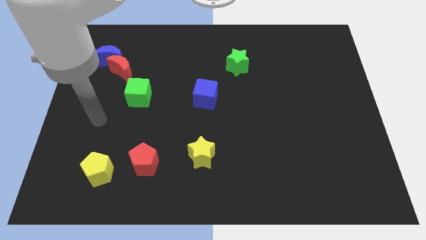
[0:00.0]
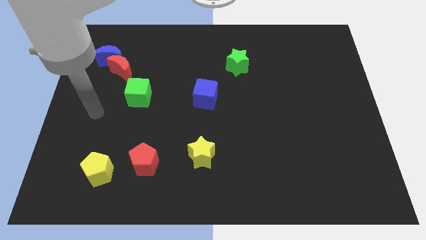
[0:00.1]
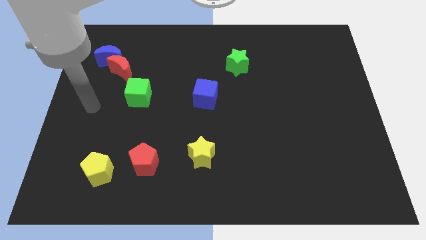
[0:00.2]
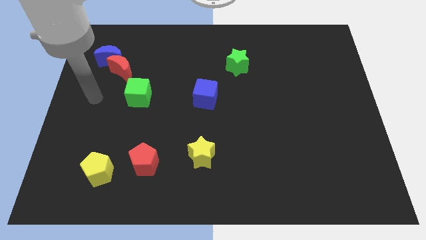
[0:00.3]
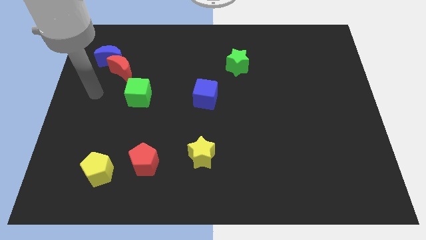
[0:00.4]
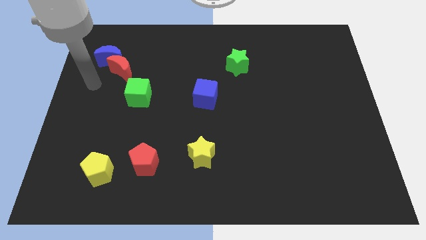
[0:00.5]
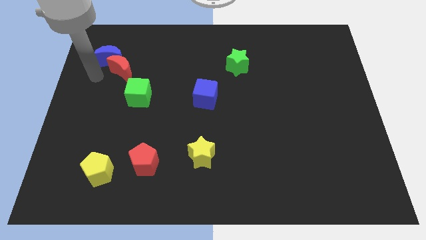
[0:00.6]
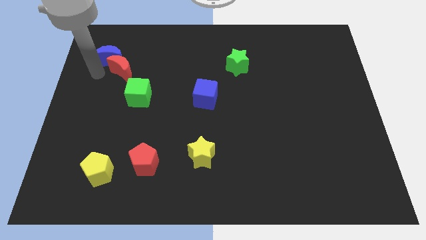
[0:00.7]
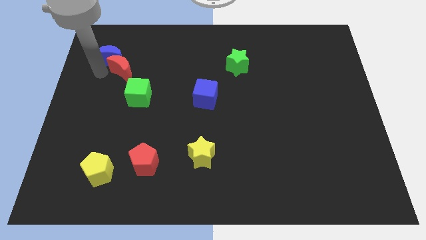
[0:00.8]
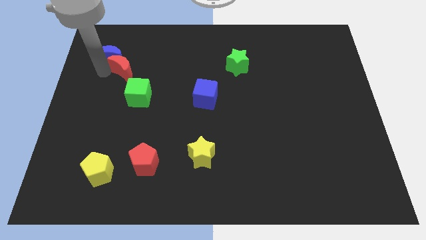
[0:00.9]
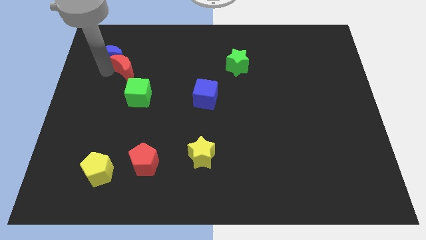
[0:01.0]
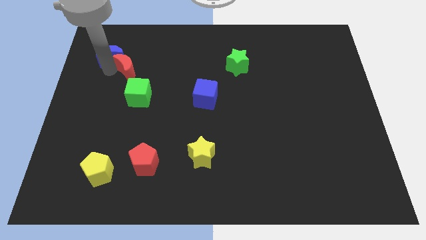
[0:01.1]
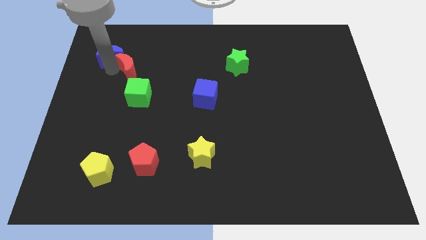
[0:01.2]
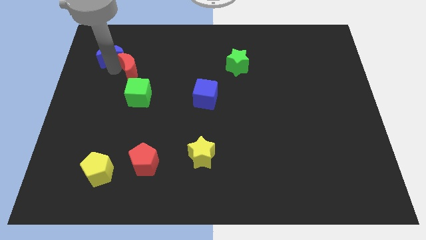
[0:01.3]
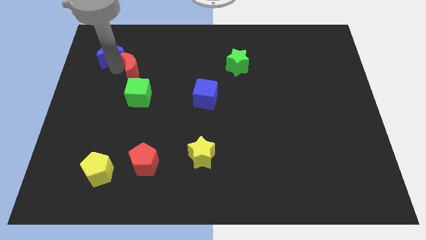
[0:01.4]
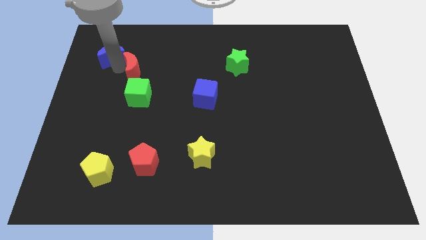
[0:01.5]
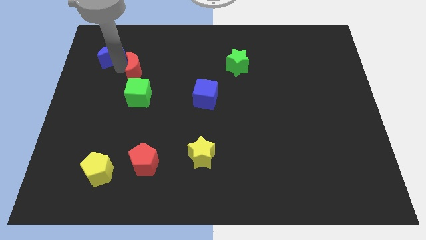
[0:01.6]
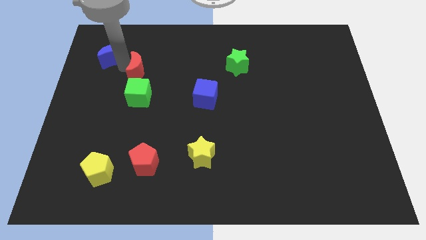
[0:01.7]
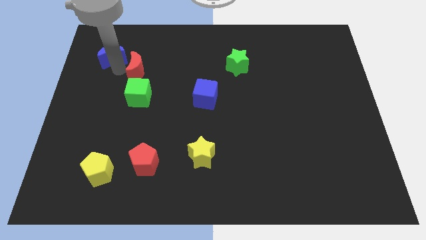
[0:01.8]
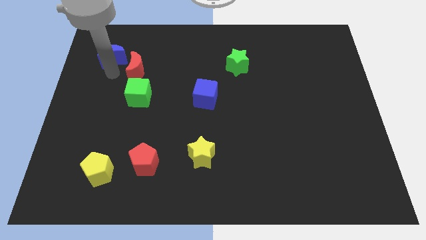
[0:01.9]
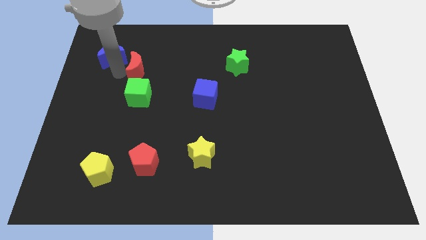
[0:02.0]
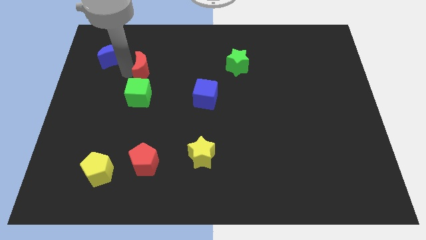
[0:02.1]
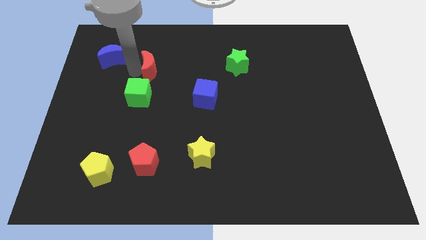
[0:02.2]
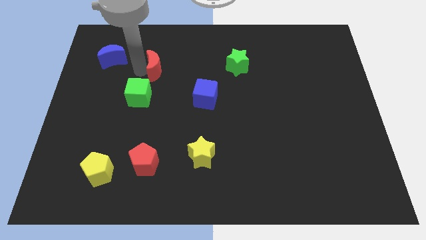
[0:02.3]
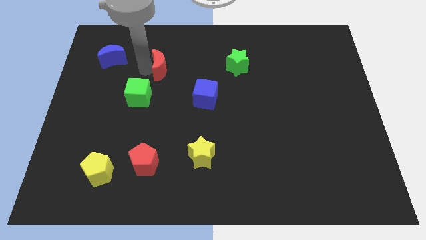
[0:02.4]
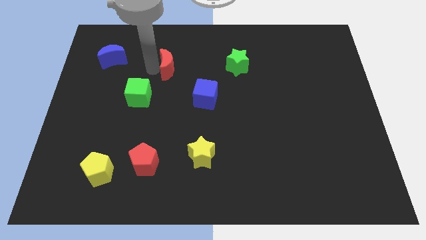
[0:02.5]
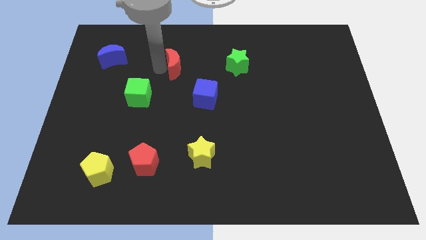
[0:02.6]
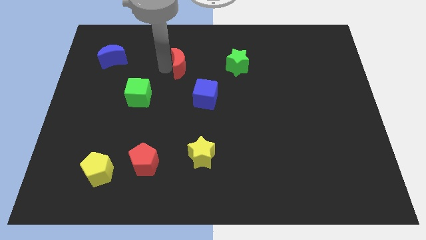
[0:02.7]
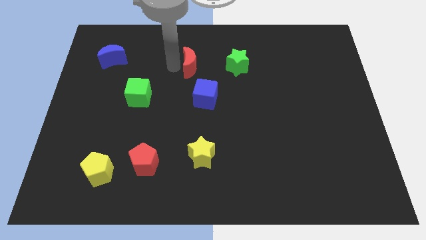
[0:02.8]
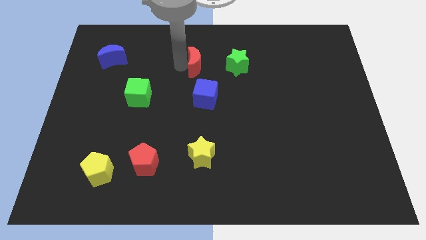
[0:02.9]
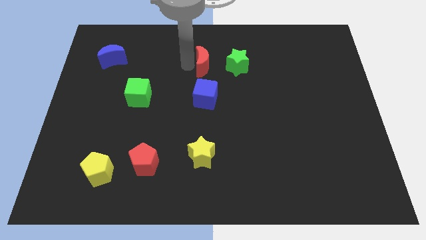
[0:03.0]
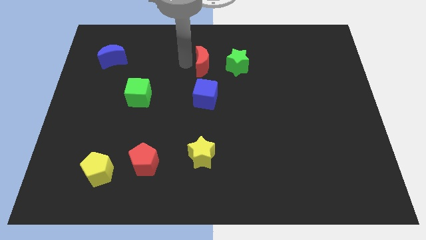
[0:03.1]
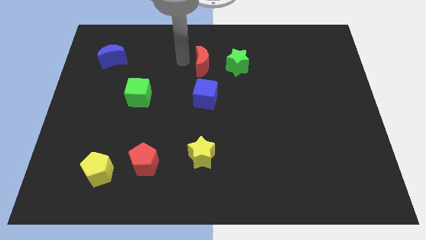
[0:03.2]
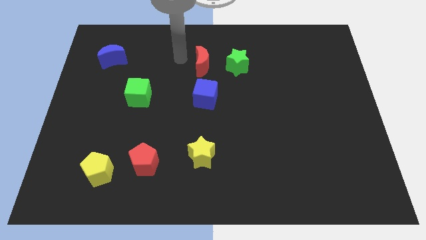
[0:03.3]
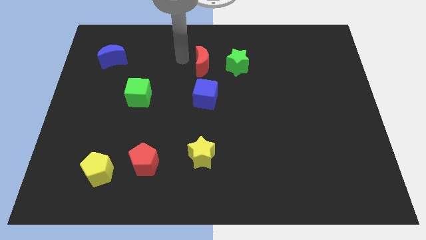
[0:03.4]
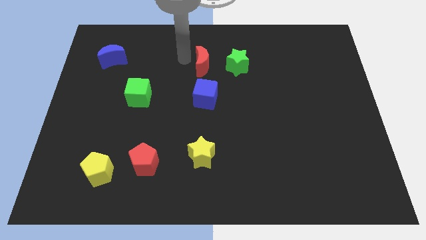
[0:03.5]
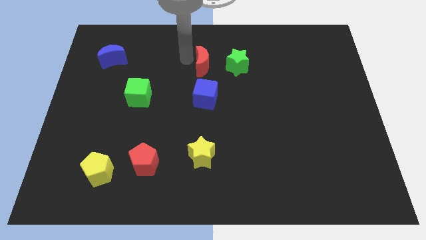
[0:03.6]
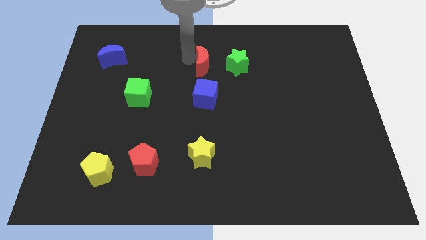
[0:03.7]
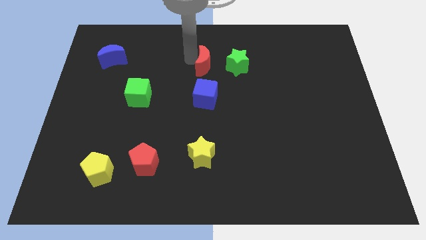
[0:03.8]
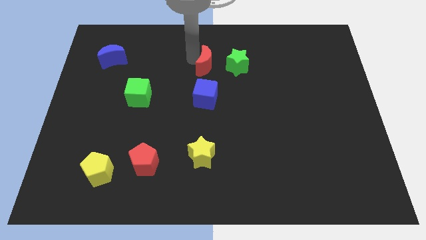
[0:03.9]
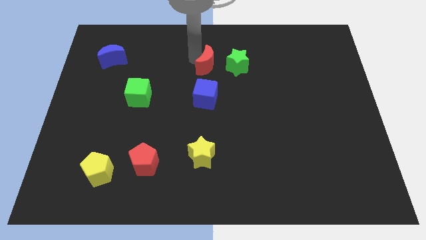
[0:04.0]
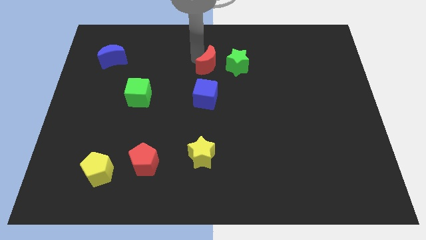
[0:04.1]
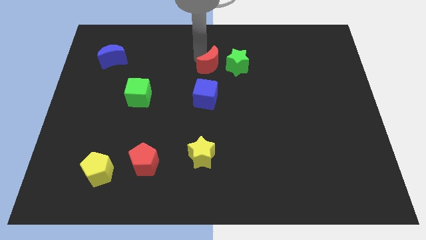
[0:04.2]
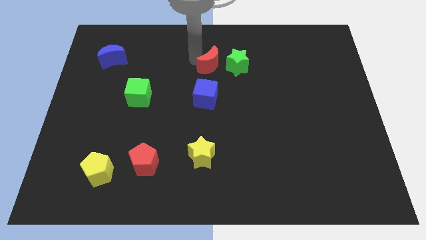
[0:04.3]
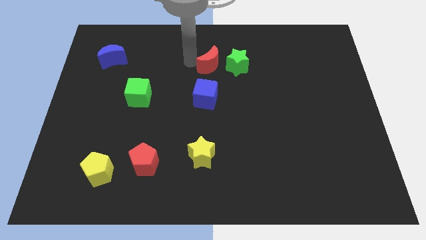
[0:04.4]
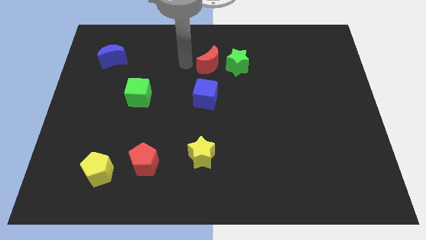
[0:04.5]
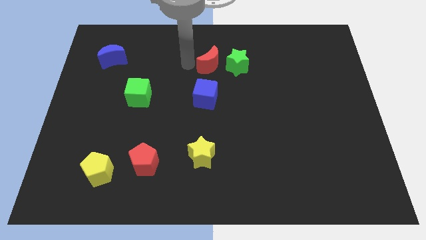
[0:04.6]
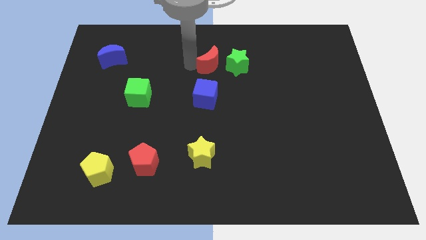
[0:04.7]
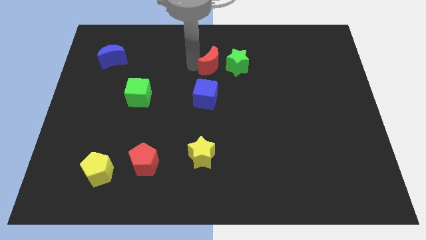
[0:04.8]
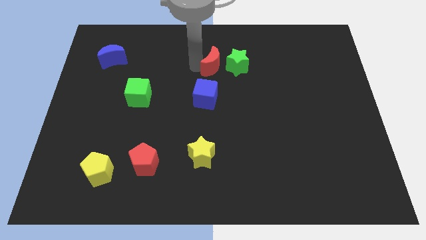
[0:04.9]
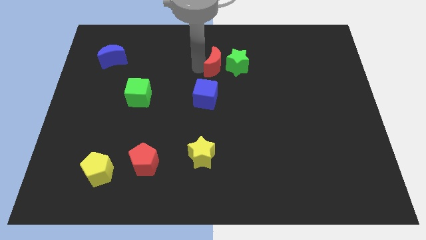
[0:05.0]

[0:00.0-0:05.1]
push the red moon close to the green star

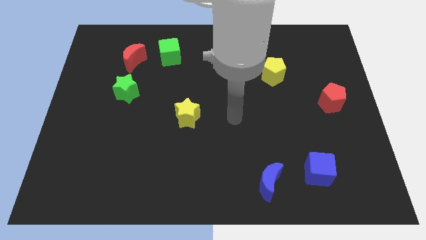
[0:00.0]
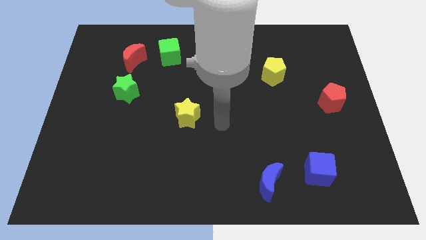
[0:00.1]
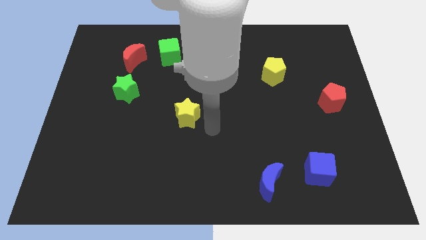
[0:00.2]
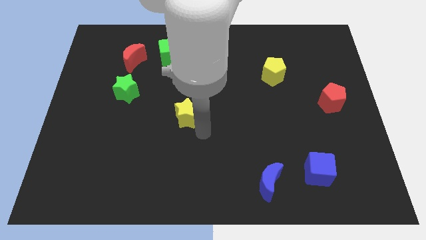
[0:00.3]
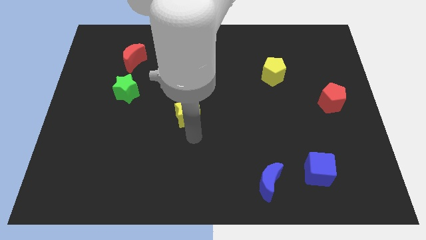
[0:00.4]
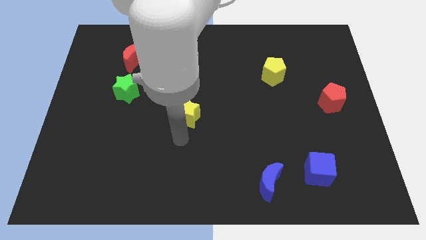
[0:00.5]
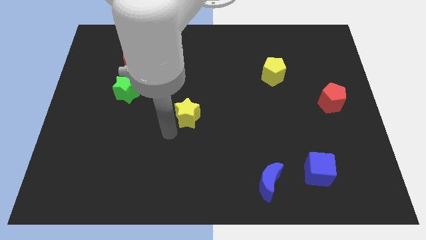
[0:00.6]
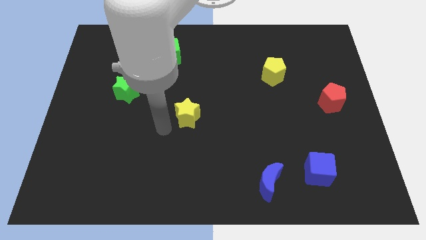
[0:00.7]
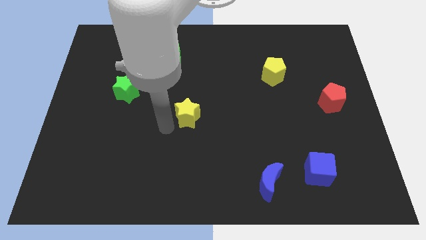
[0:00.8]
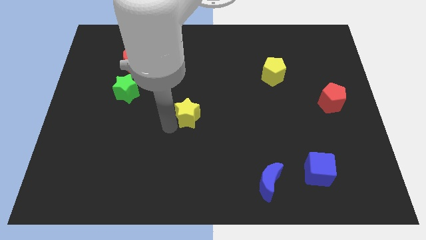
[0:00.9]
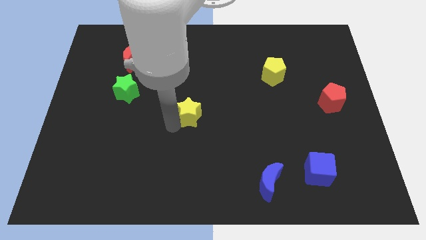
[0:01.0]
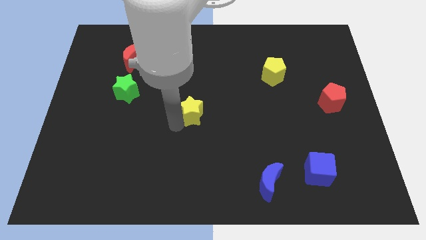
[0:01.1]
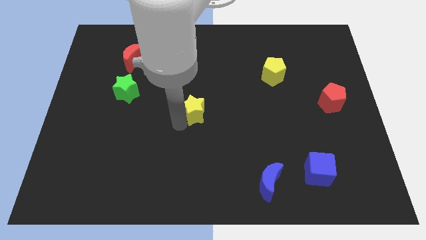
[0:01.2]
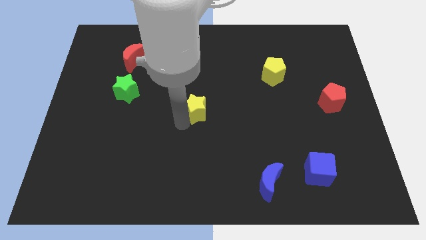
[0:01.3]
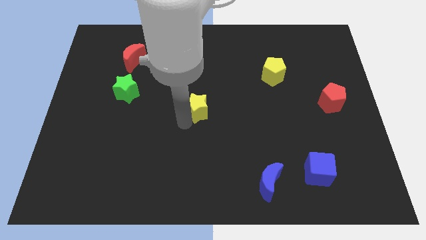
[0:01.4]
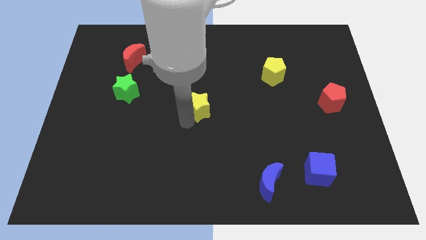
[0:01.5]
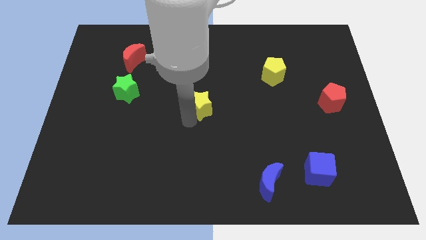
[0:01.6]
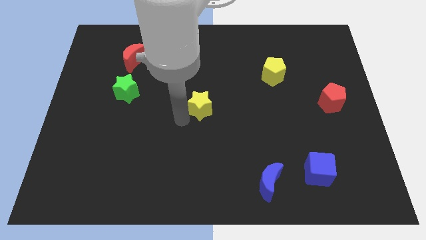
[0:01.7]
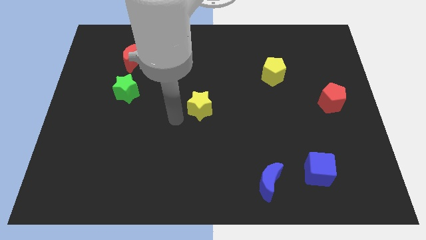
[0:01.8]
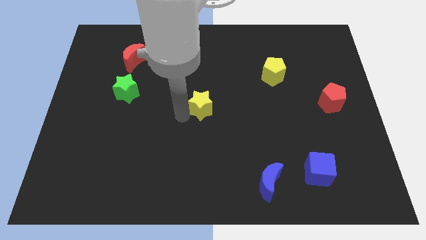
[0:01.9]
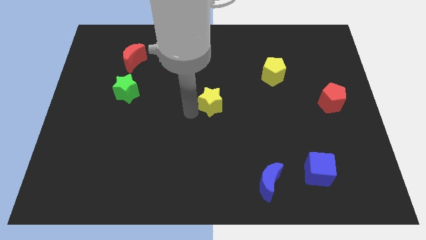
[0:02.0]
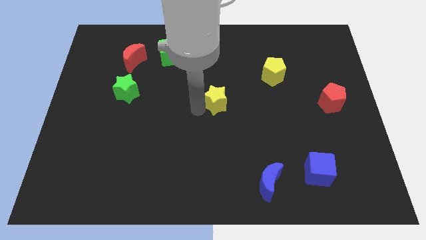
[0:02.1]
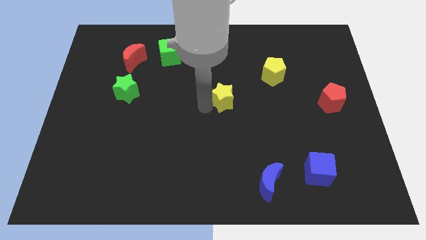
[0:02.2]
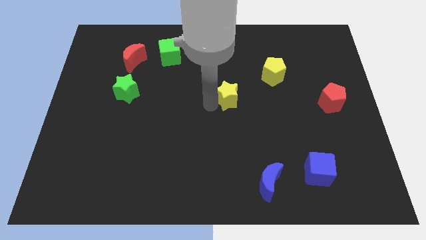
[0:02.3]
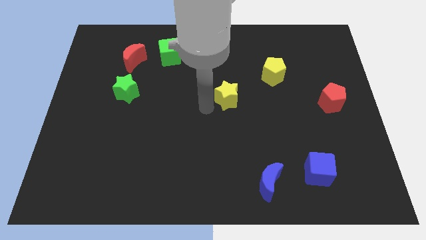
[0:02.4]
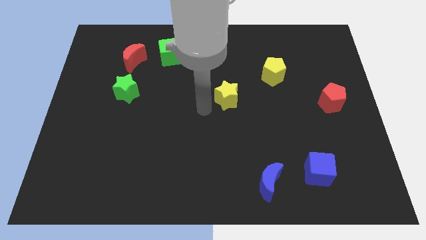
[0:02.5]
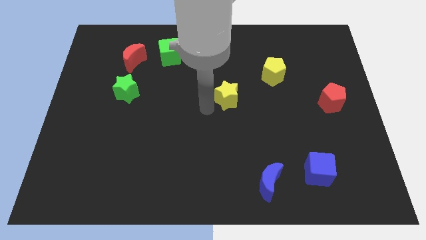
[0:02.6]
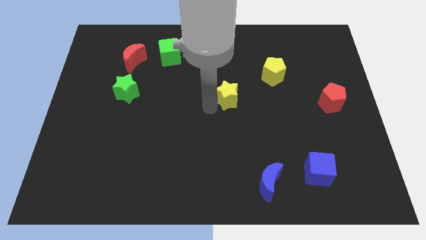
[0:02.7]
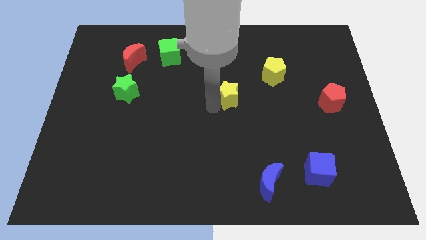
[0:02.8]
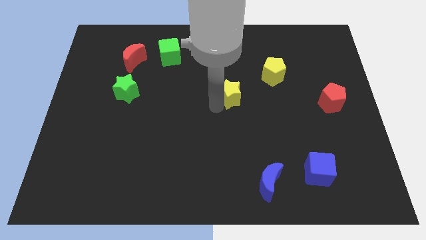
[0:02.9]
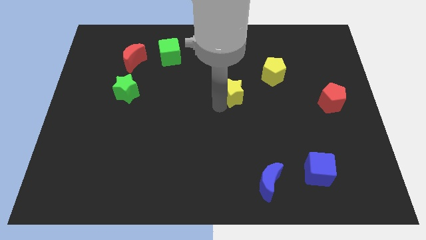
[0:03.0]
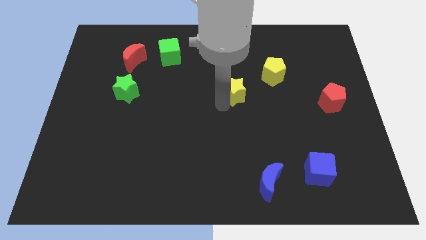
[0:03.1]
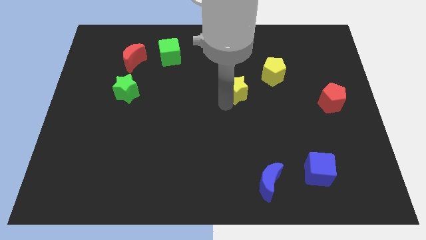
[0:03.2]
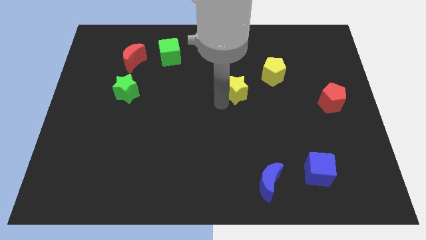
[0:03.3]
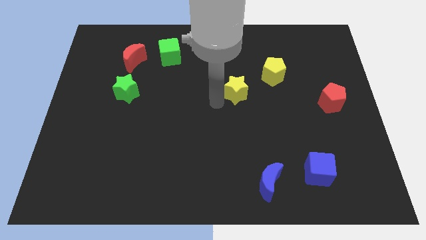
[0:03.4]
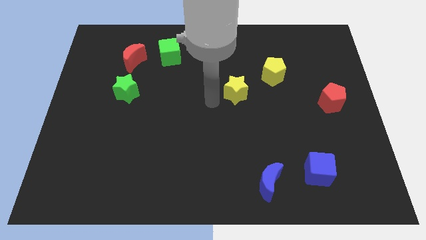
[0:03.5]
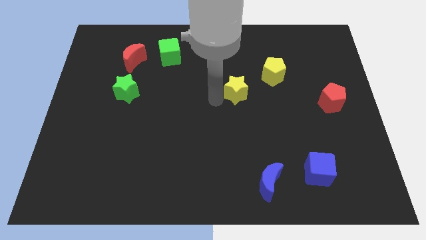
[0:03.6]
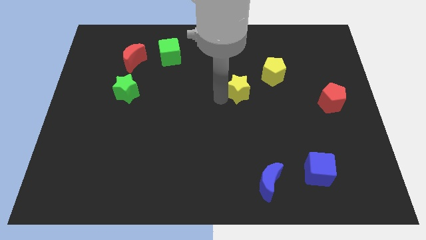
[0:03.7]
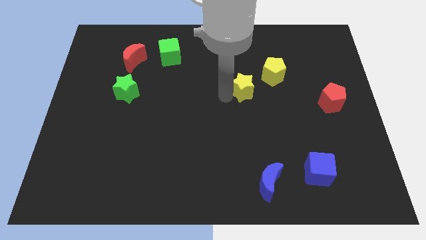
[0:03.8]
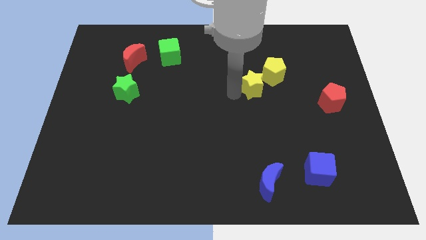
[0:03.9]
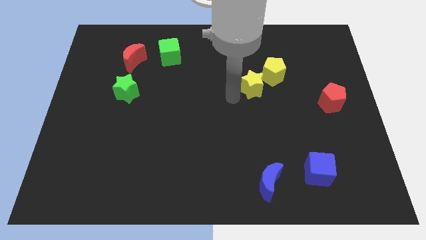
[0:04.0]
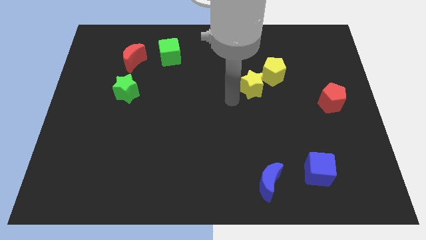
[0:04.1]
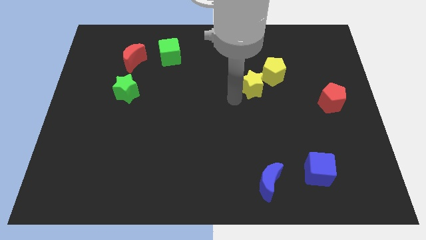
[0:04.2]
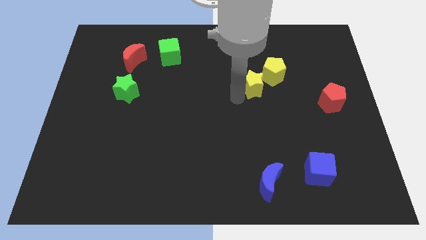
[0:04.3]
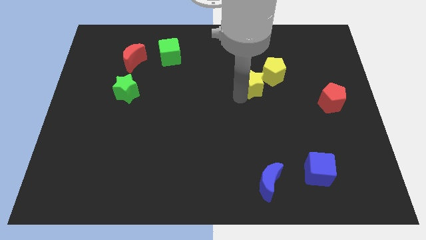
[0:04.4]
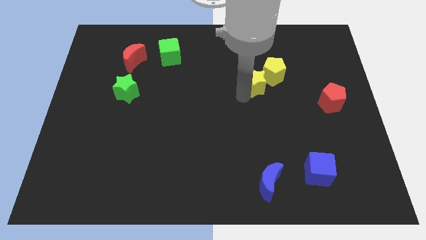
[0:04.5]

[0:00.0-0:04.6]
push the yellow star close to the yellow pentagon
